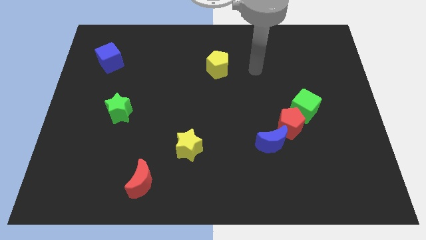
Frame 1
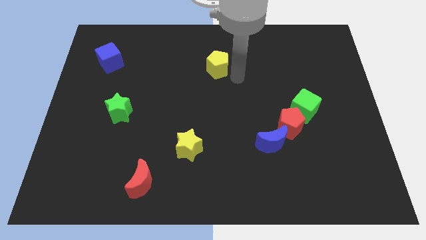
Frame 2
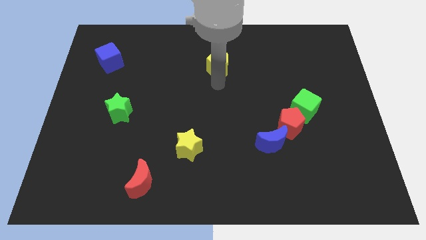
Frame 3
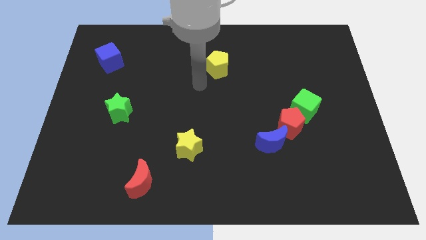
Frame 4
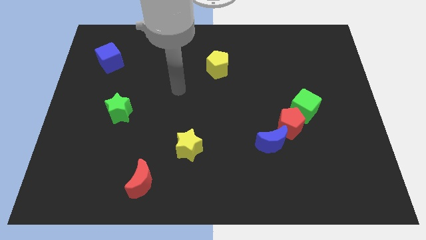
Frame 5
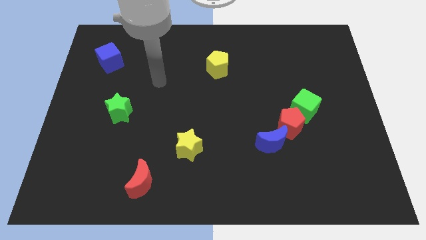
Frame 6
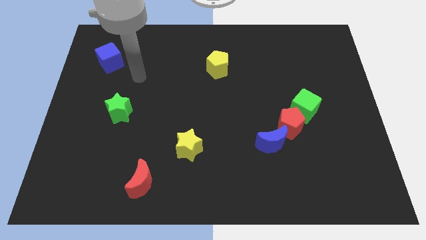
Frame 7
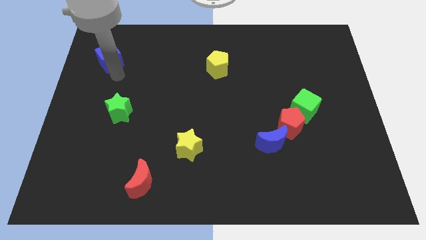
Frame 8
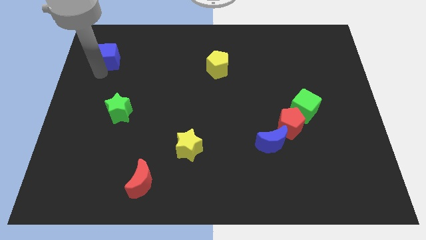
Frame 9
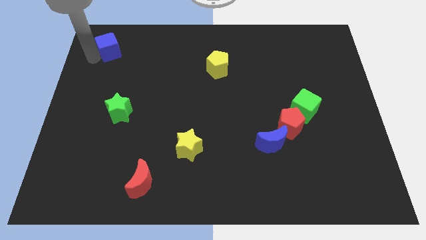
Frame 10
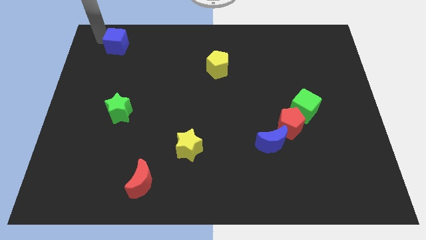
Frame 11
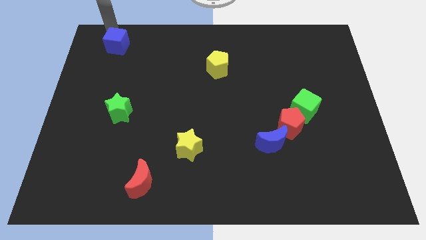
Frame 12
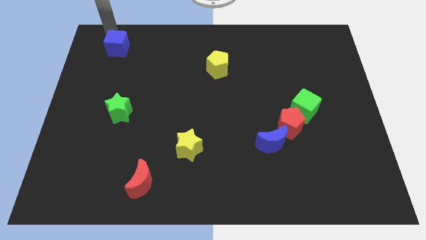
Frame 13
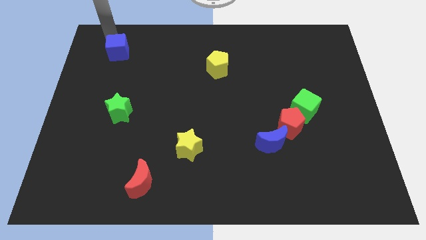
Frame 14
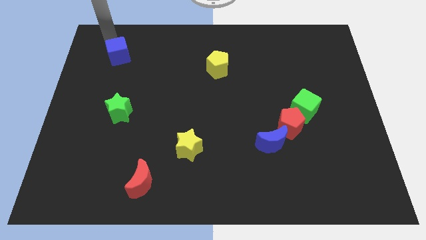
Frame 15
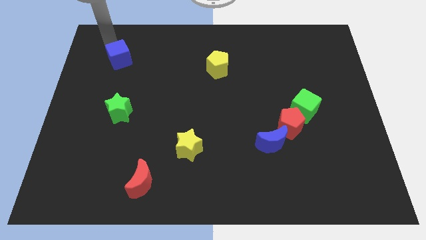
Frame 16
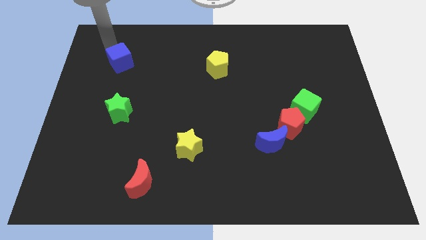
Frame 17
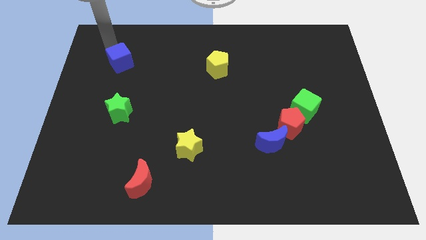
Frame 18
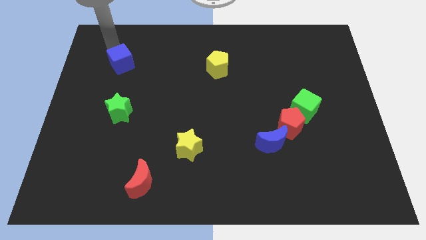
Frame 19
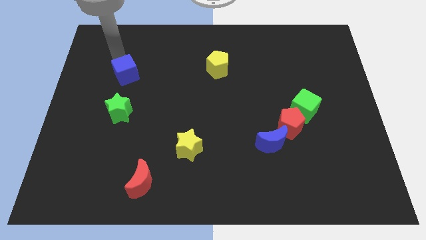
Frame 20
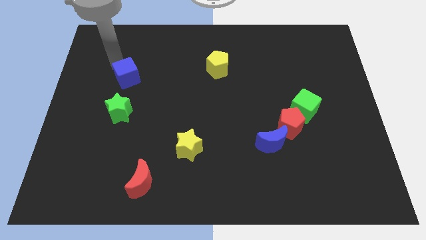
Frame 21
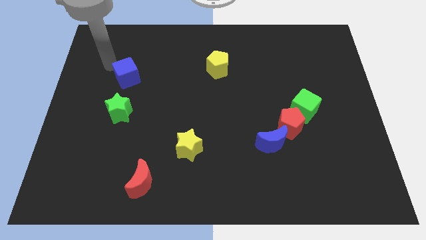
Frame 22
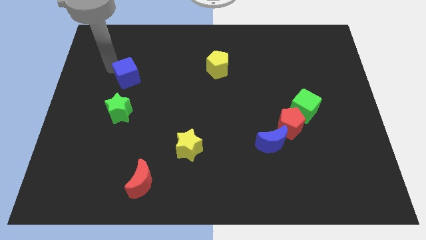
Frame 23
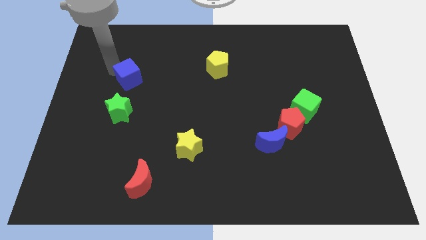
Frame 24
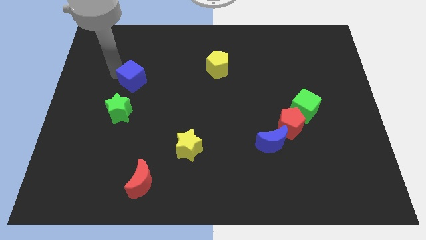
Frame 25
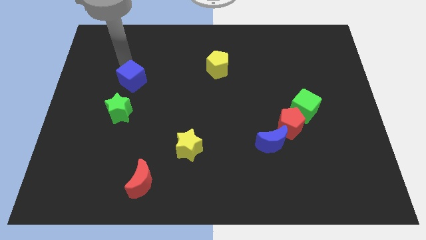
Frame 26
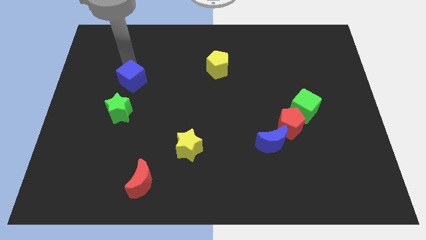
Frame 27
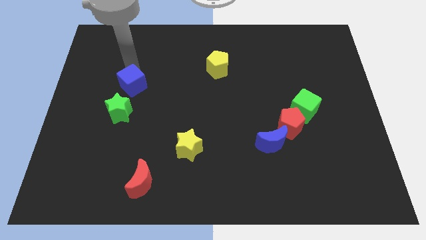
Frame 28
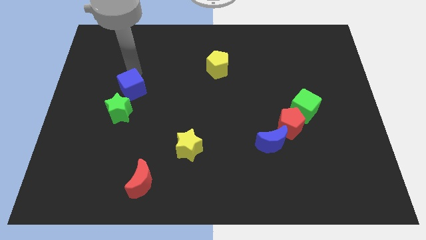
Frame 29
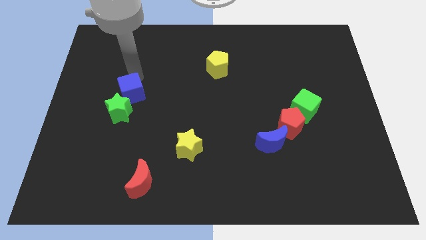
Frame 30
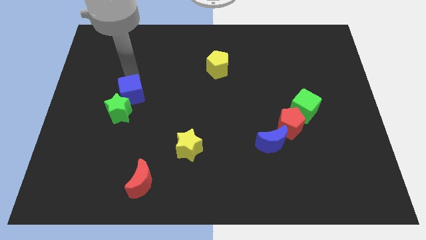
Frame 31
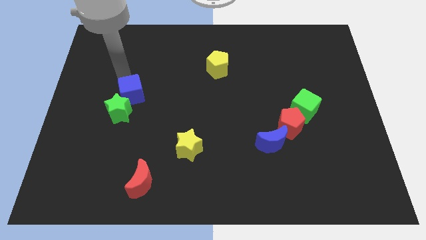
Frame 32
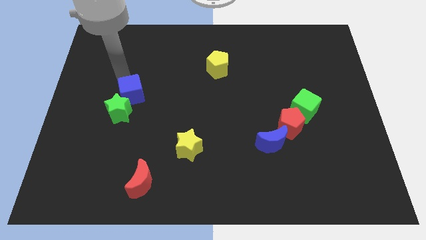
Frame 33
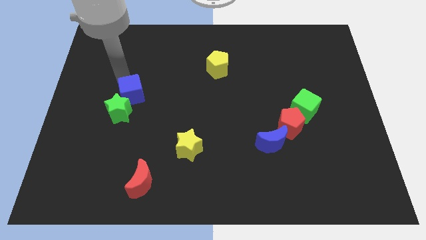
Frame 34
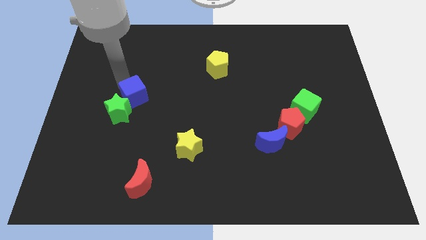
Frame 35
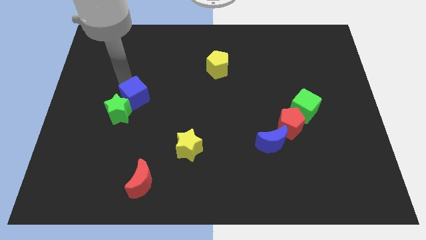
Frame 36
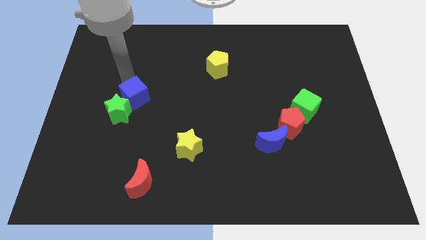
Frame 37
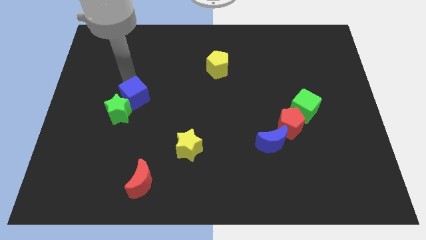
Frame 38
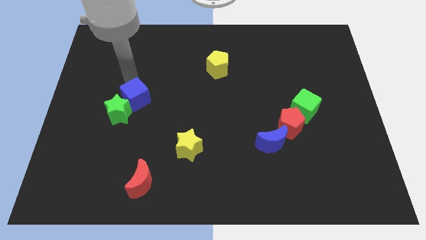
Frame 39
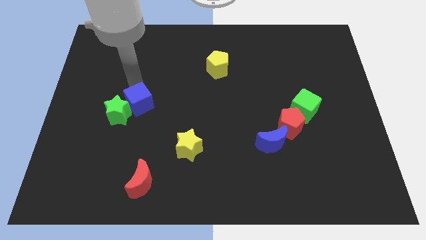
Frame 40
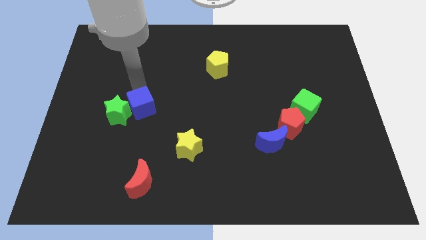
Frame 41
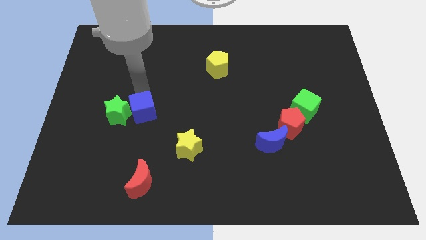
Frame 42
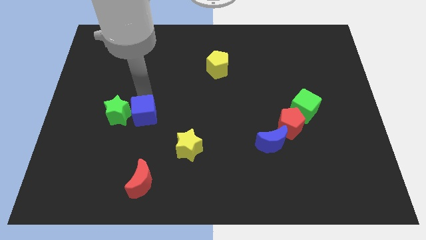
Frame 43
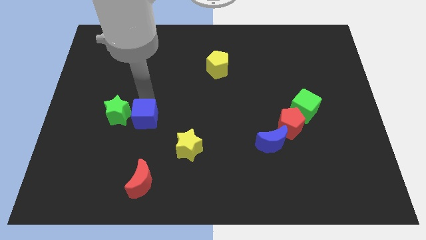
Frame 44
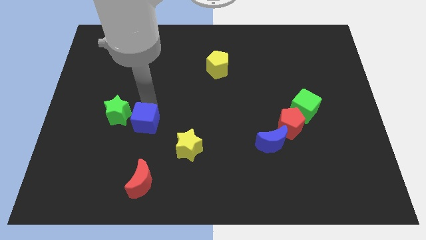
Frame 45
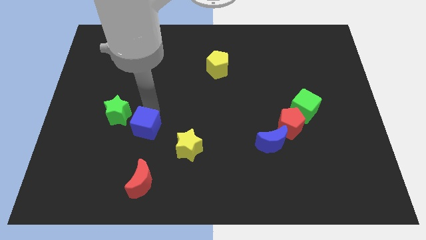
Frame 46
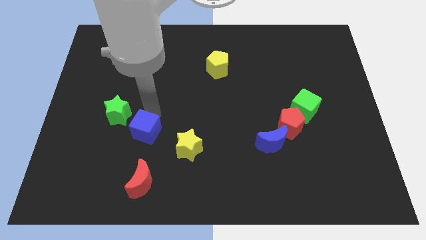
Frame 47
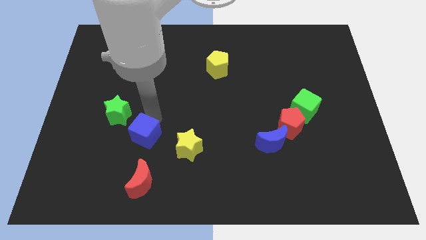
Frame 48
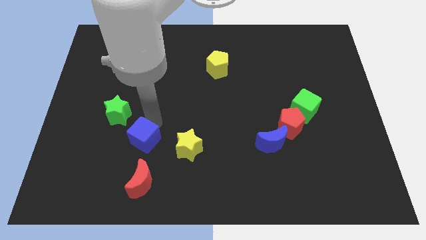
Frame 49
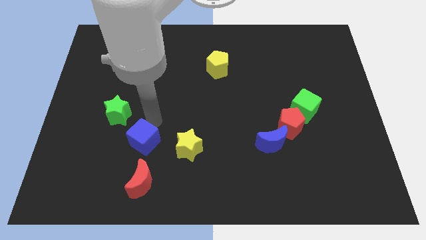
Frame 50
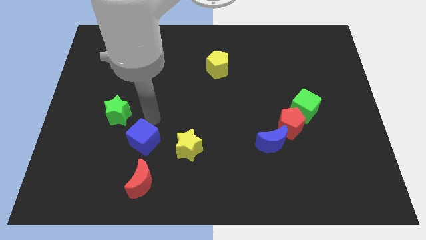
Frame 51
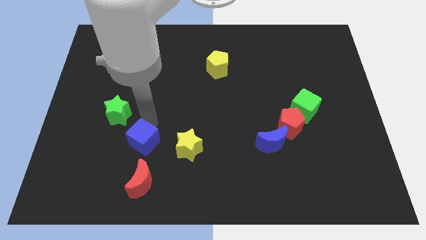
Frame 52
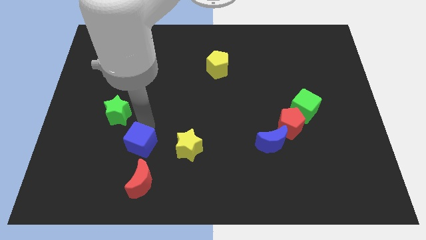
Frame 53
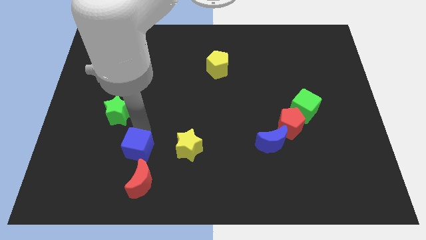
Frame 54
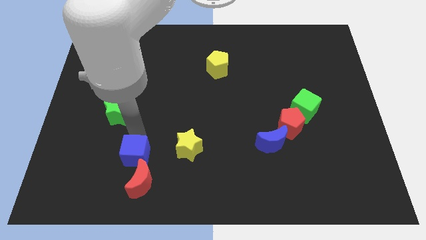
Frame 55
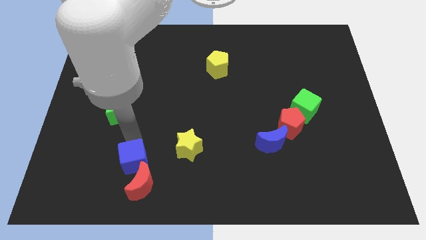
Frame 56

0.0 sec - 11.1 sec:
push the blue cube next to the red moon

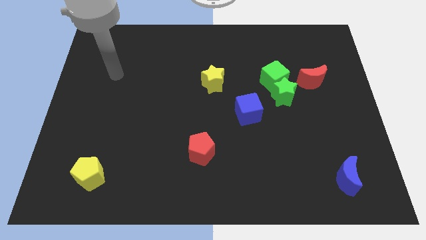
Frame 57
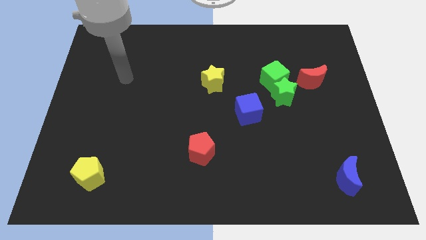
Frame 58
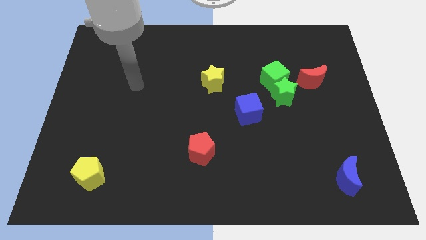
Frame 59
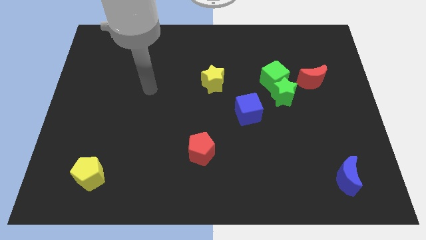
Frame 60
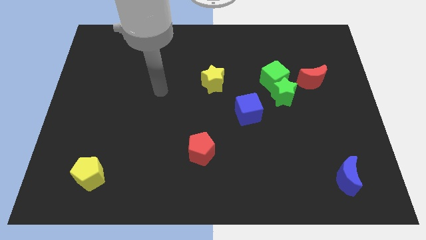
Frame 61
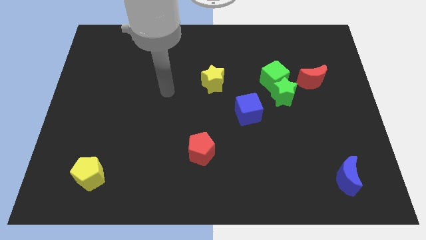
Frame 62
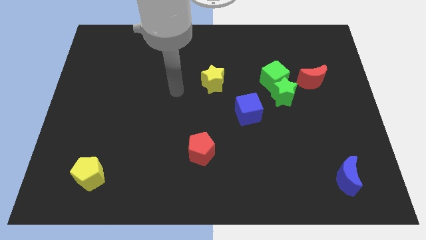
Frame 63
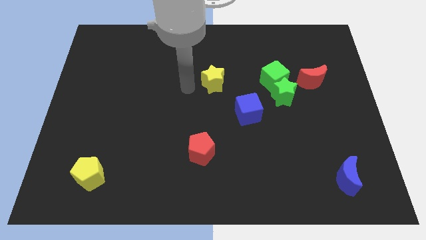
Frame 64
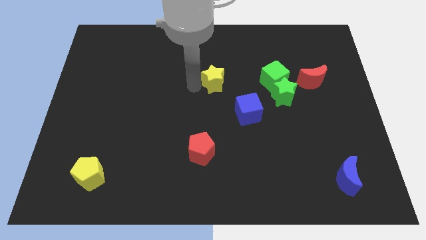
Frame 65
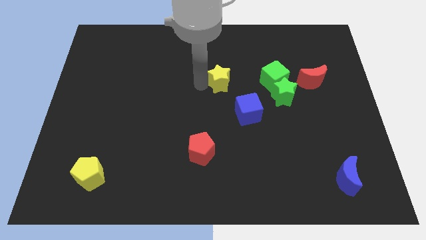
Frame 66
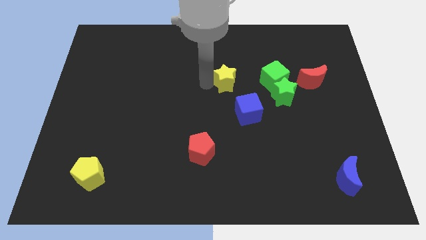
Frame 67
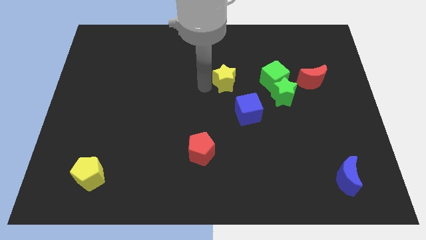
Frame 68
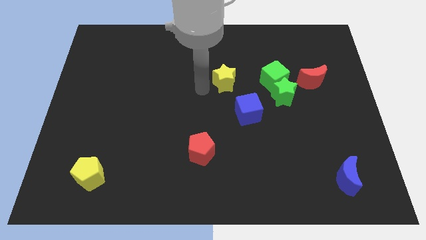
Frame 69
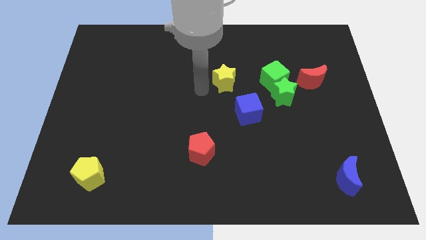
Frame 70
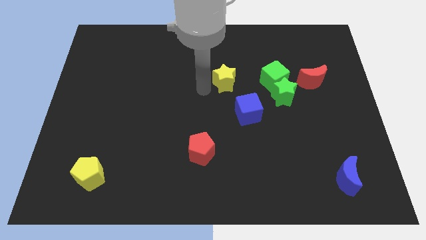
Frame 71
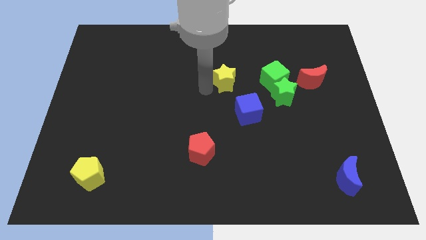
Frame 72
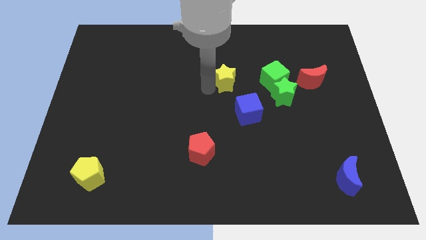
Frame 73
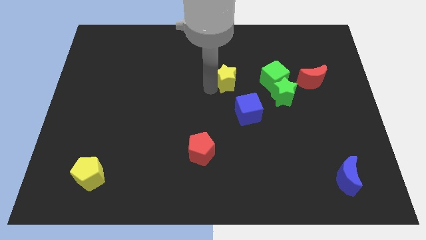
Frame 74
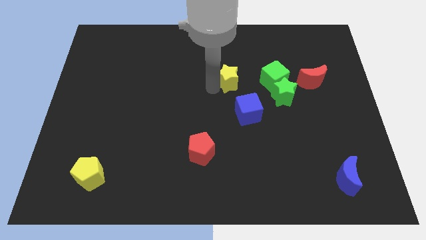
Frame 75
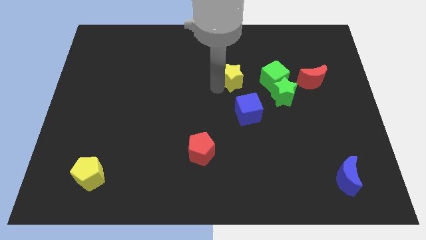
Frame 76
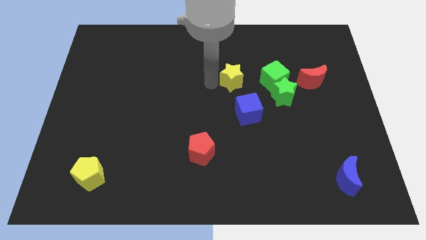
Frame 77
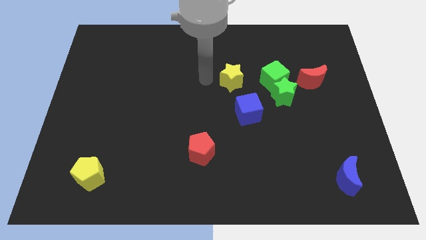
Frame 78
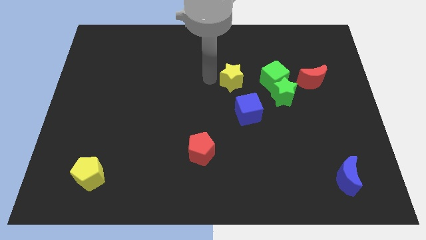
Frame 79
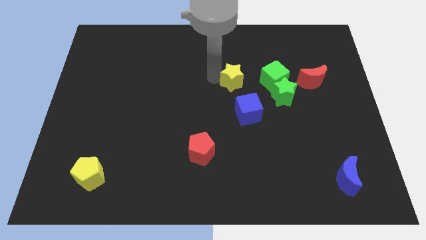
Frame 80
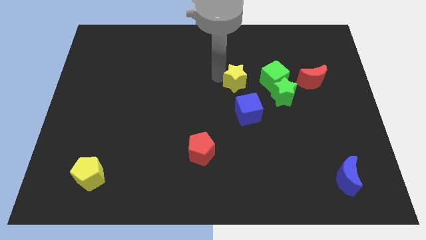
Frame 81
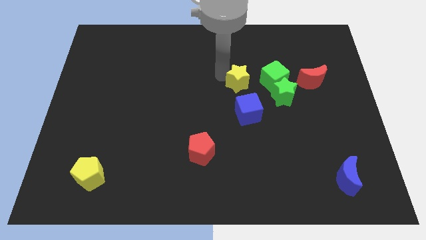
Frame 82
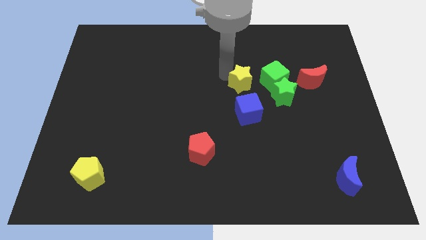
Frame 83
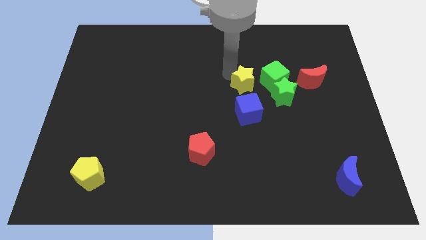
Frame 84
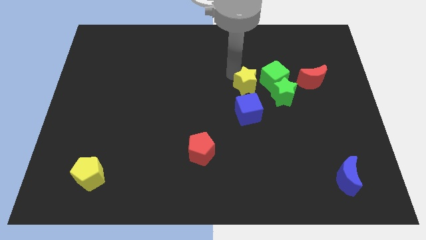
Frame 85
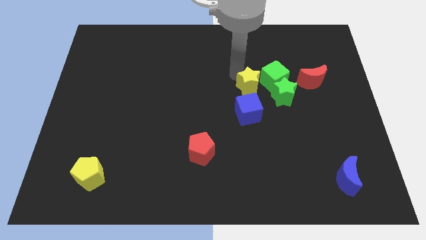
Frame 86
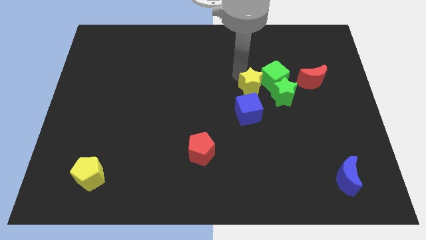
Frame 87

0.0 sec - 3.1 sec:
put the yellow star close to the green cube
